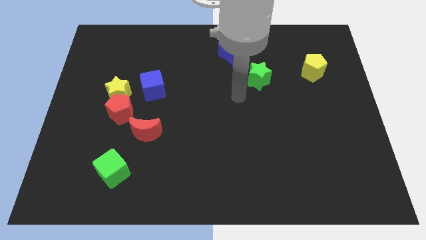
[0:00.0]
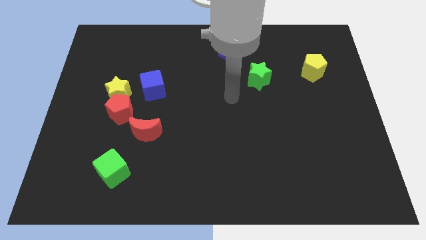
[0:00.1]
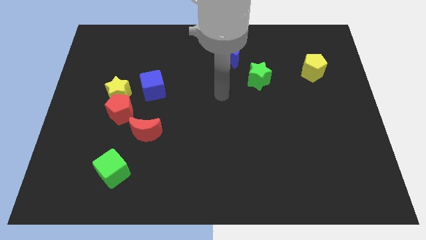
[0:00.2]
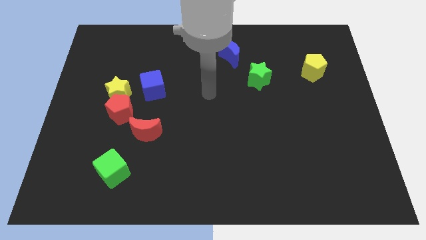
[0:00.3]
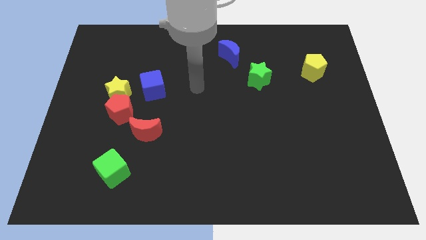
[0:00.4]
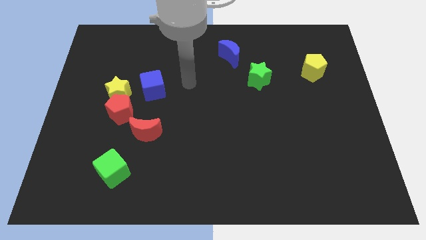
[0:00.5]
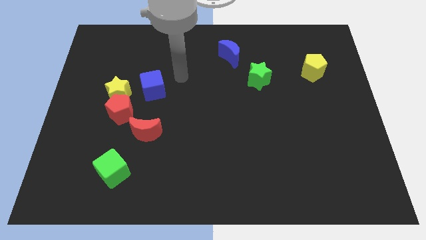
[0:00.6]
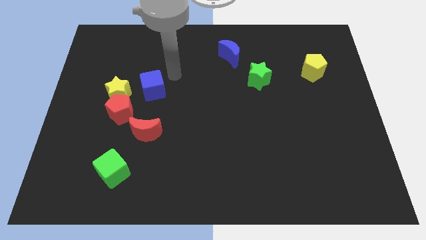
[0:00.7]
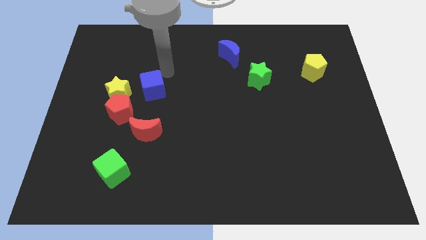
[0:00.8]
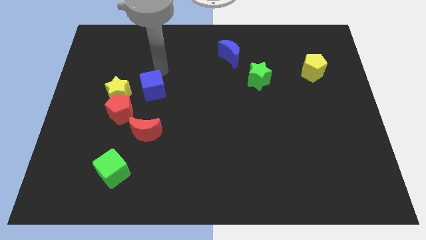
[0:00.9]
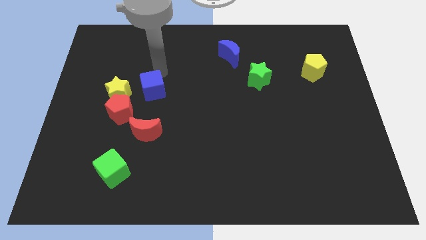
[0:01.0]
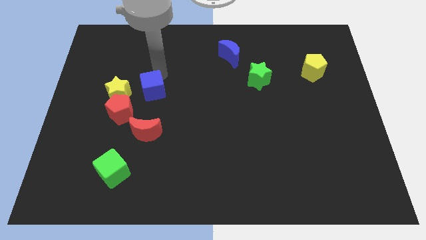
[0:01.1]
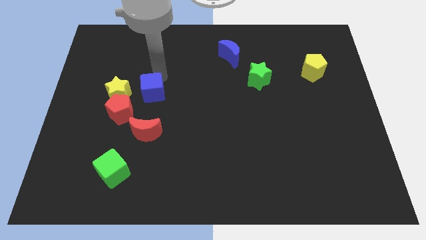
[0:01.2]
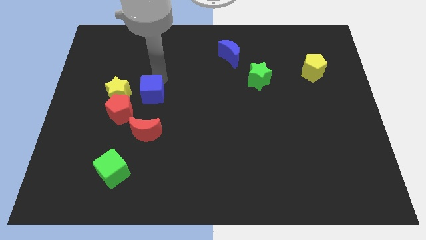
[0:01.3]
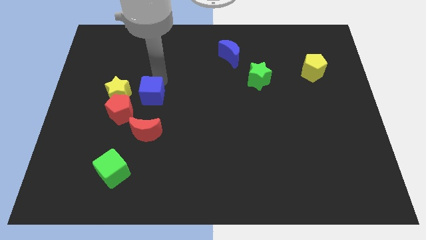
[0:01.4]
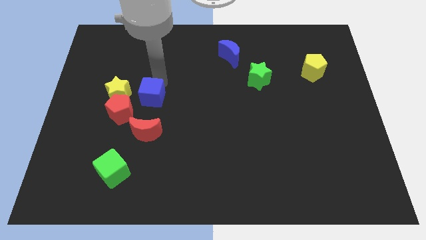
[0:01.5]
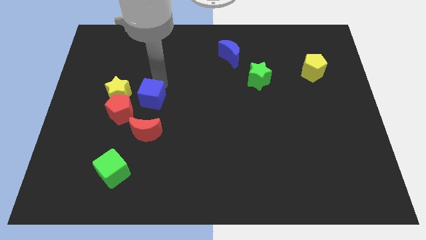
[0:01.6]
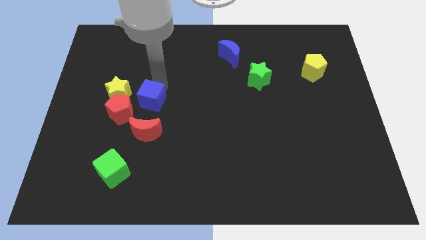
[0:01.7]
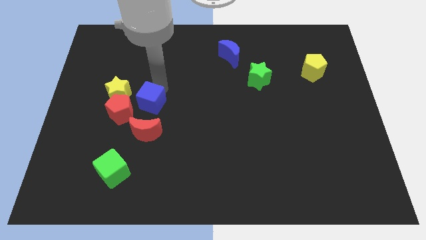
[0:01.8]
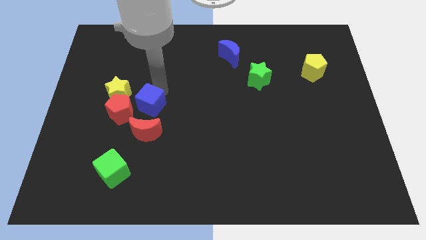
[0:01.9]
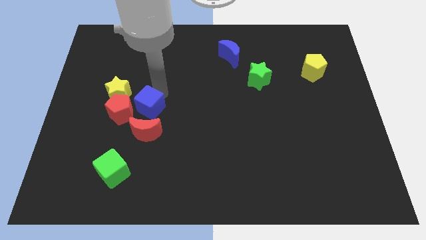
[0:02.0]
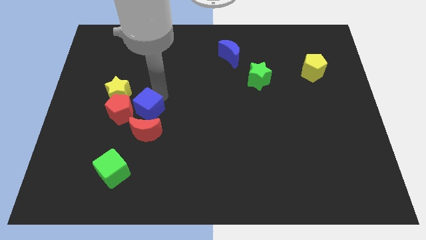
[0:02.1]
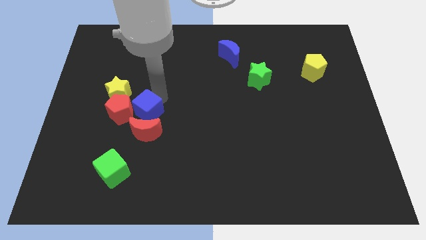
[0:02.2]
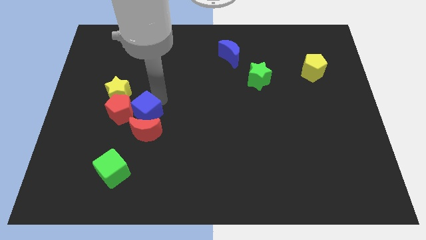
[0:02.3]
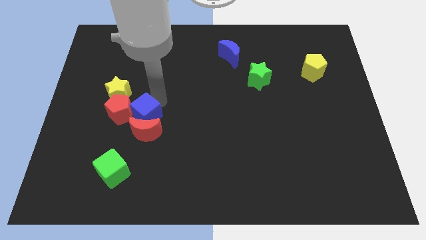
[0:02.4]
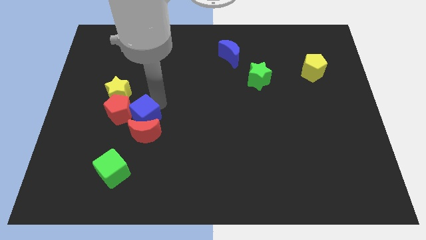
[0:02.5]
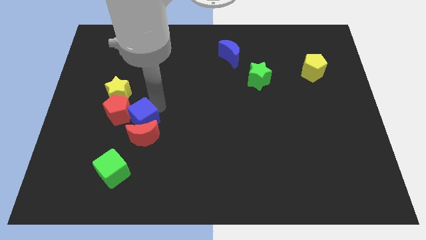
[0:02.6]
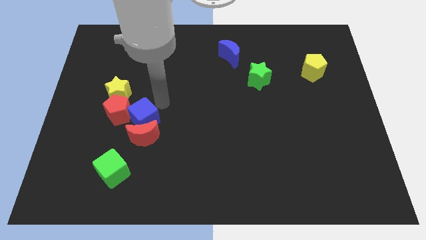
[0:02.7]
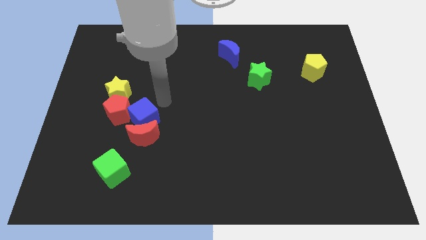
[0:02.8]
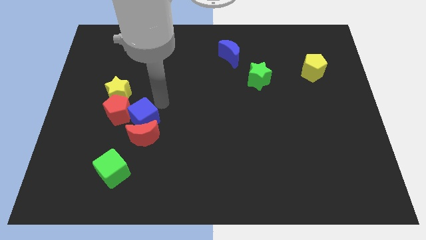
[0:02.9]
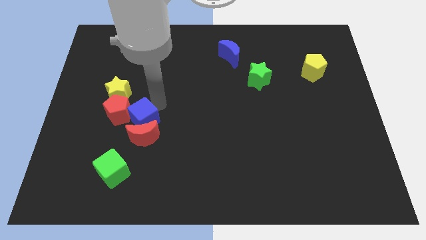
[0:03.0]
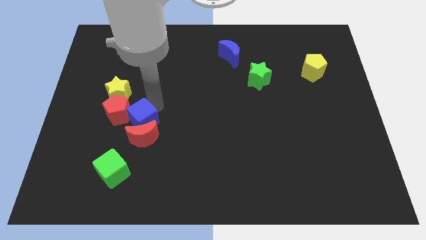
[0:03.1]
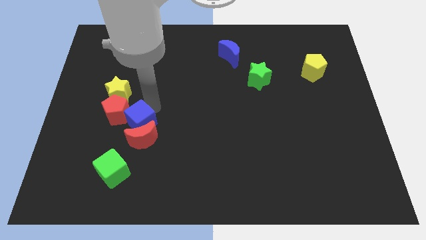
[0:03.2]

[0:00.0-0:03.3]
push the blue cube downwards and then to the left a bit

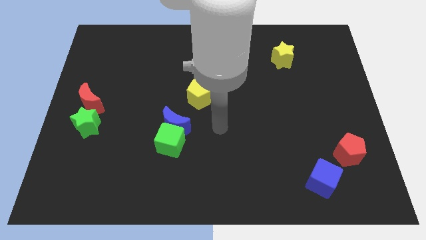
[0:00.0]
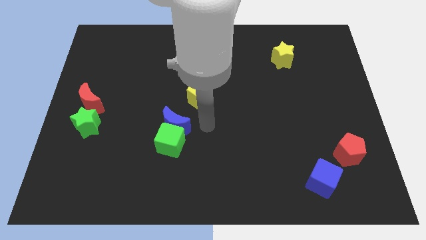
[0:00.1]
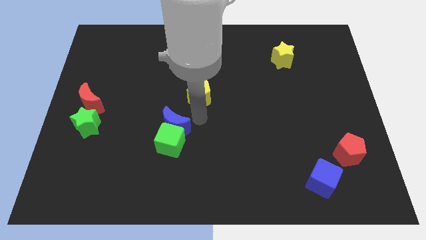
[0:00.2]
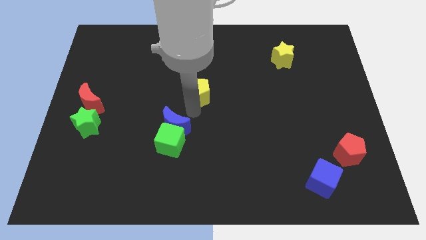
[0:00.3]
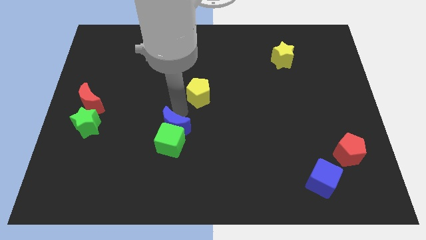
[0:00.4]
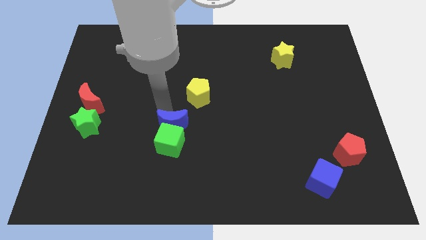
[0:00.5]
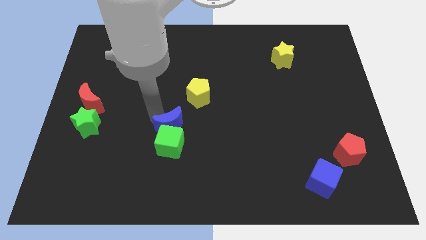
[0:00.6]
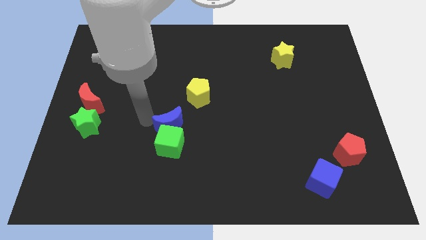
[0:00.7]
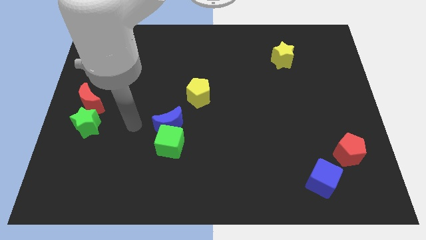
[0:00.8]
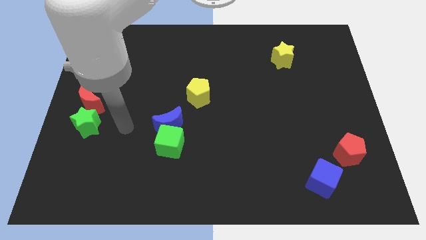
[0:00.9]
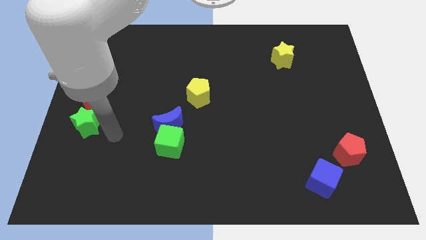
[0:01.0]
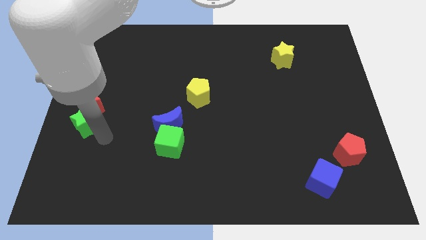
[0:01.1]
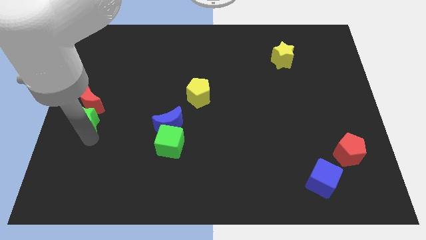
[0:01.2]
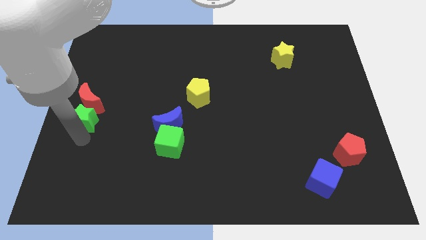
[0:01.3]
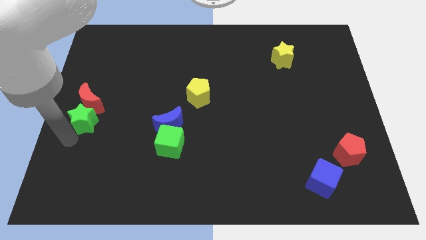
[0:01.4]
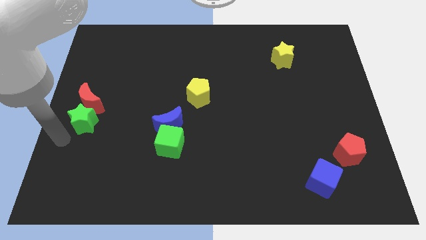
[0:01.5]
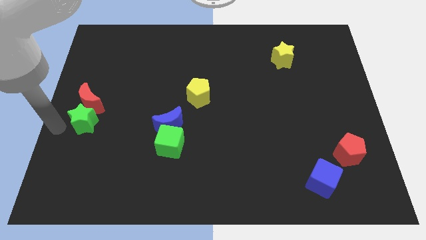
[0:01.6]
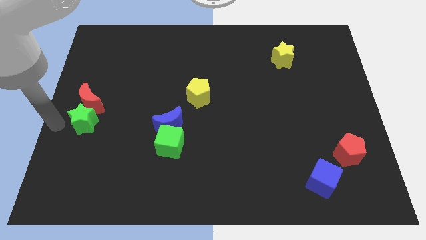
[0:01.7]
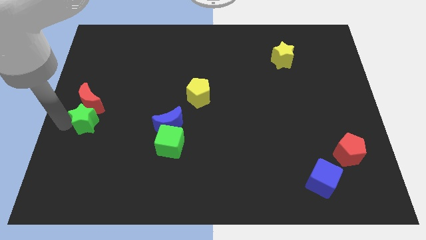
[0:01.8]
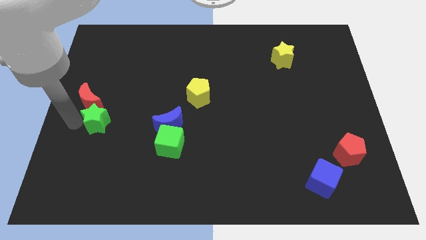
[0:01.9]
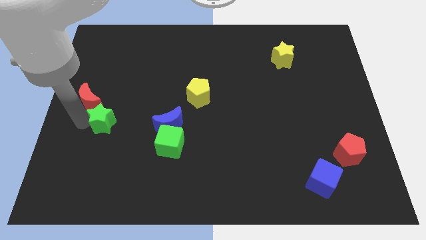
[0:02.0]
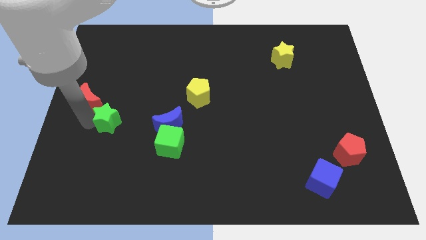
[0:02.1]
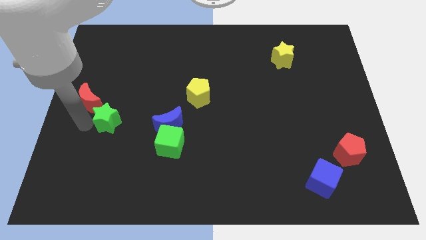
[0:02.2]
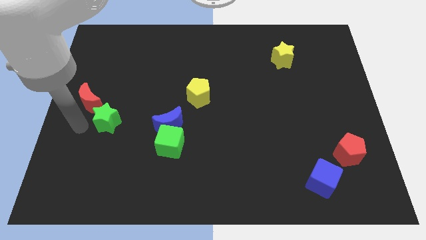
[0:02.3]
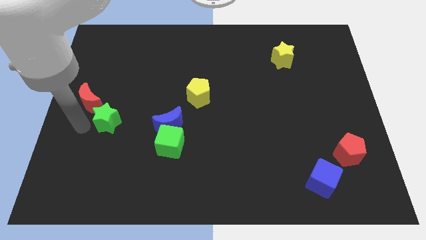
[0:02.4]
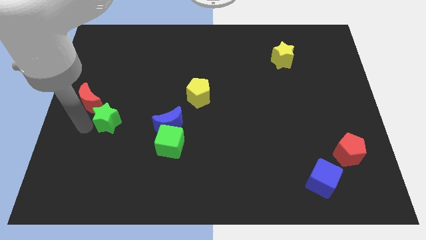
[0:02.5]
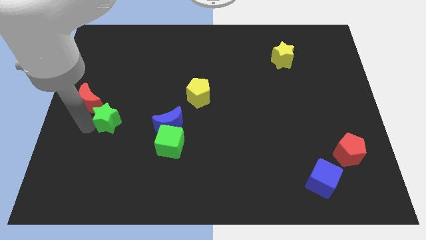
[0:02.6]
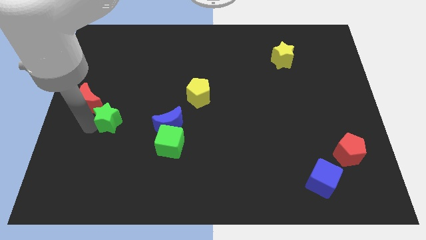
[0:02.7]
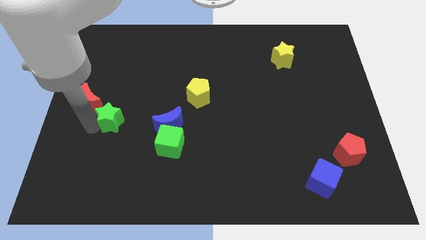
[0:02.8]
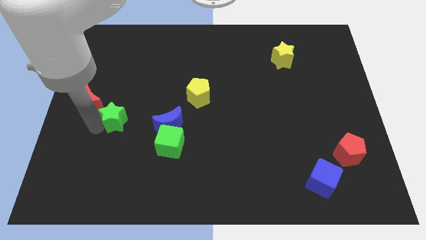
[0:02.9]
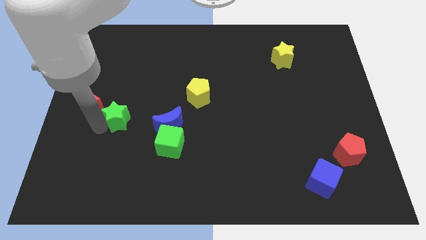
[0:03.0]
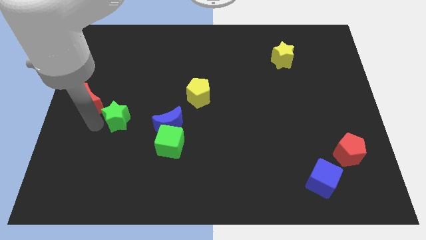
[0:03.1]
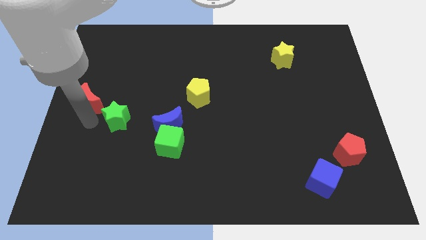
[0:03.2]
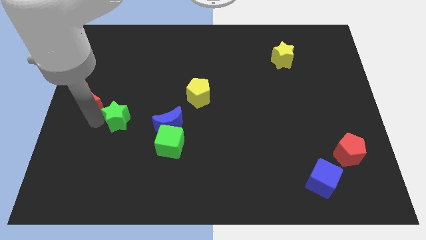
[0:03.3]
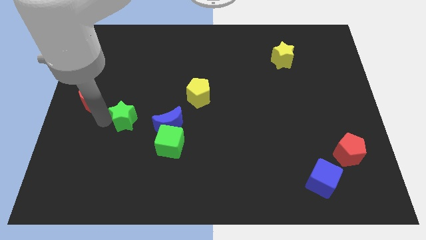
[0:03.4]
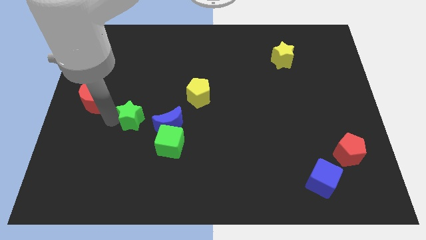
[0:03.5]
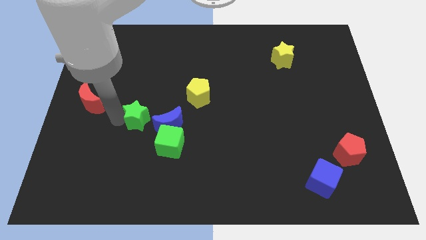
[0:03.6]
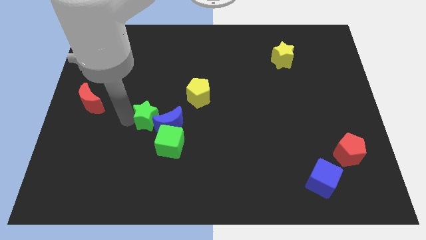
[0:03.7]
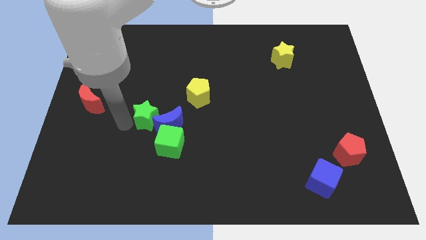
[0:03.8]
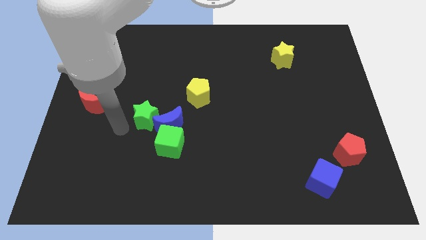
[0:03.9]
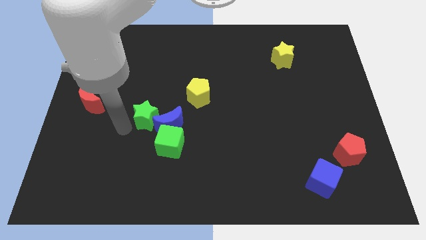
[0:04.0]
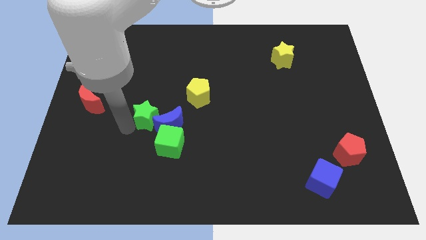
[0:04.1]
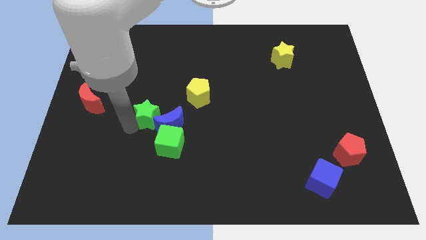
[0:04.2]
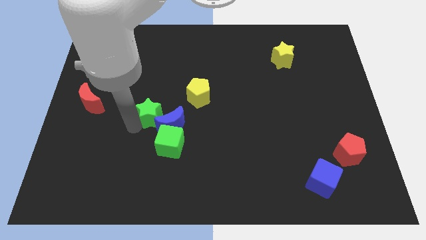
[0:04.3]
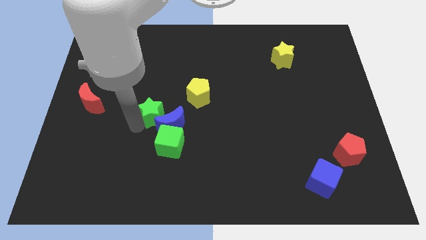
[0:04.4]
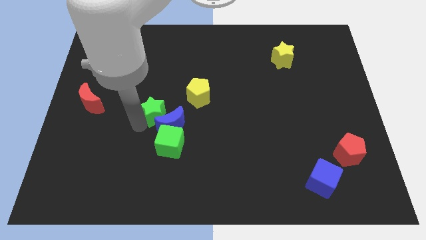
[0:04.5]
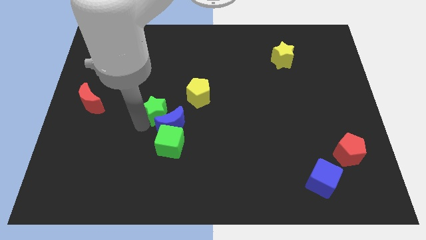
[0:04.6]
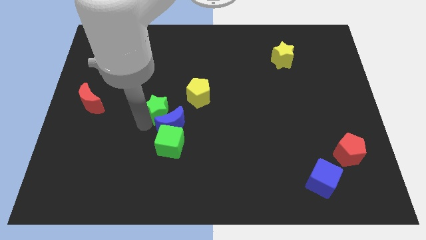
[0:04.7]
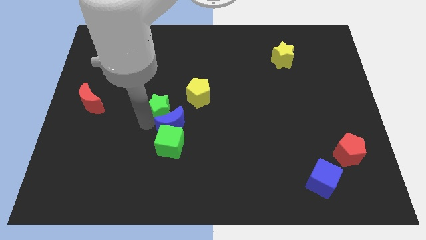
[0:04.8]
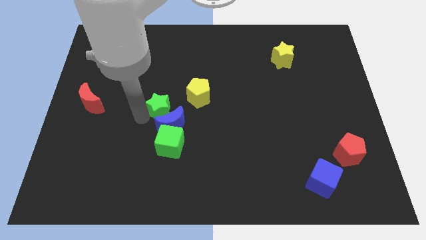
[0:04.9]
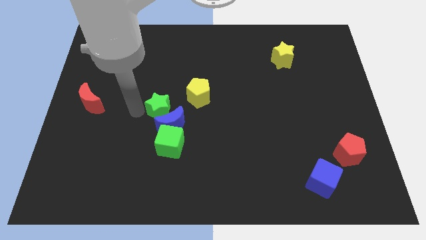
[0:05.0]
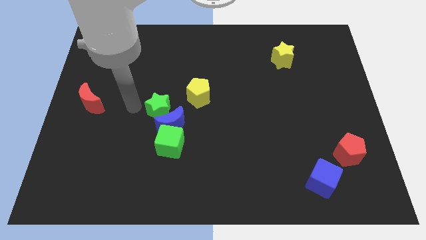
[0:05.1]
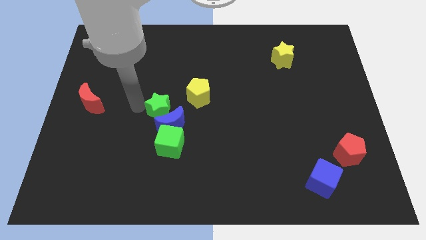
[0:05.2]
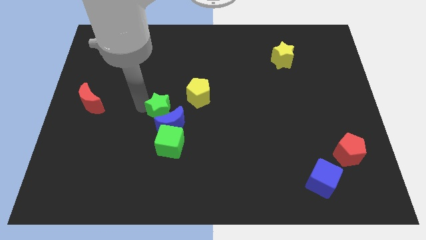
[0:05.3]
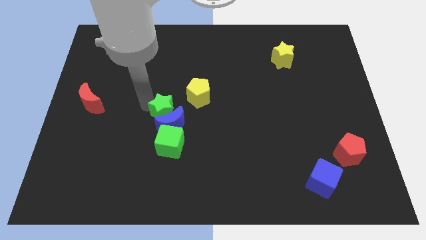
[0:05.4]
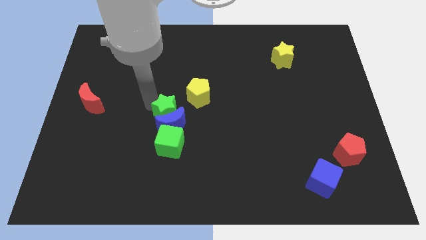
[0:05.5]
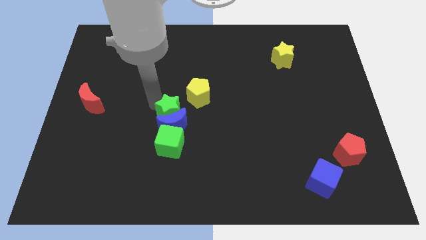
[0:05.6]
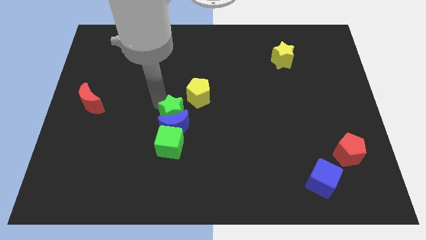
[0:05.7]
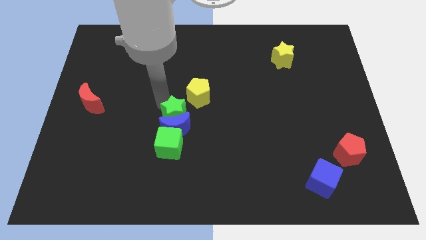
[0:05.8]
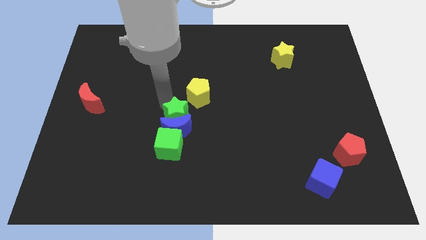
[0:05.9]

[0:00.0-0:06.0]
slide the green star right
